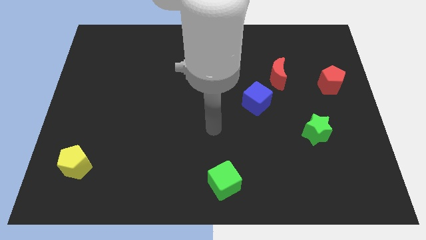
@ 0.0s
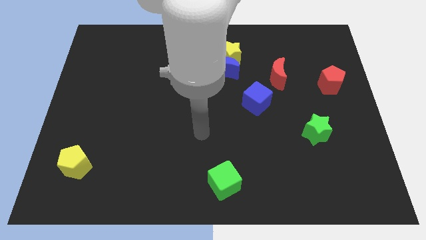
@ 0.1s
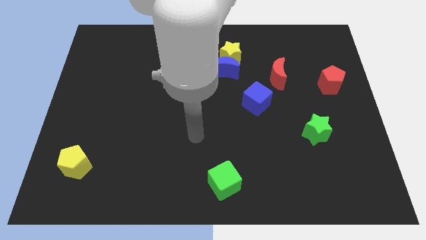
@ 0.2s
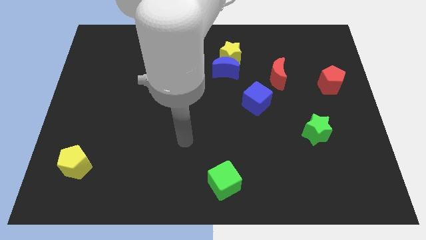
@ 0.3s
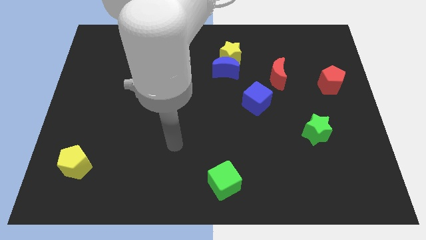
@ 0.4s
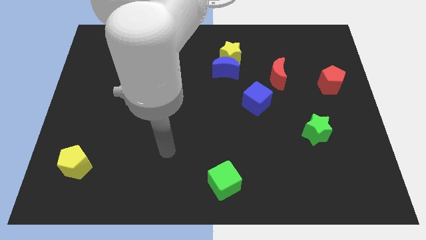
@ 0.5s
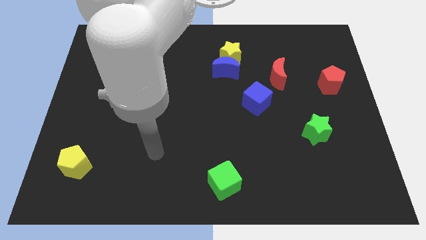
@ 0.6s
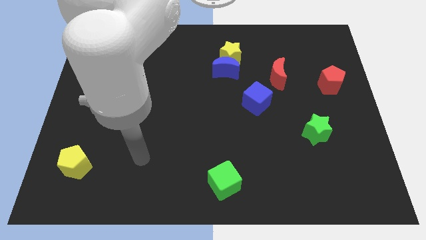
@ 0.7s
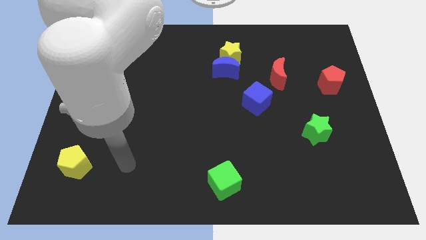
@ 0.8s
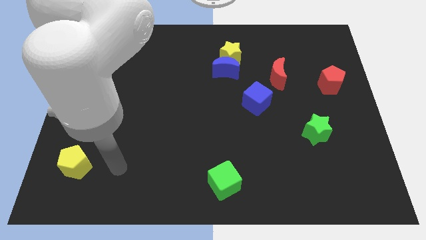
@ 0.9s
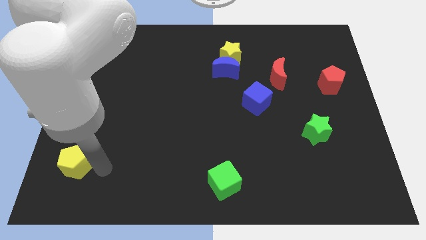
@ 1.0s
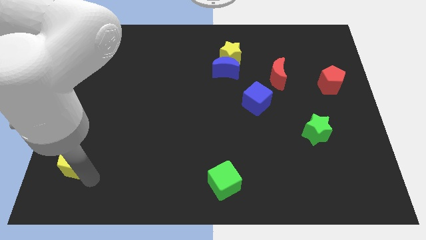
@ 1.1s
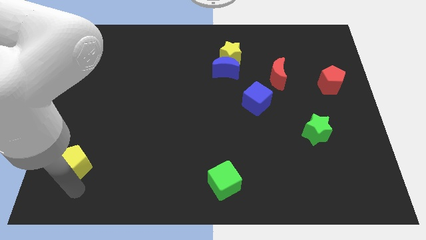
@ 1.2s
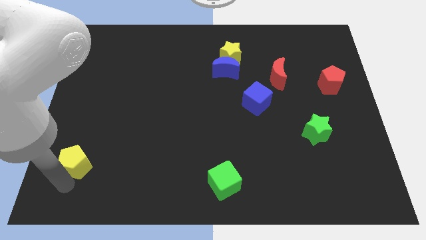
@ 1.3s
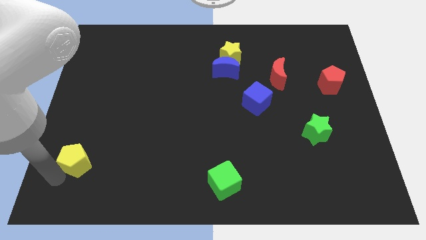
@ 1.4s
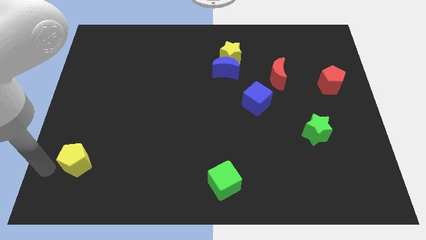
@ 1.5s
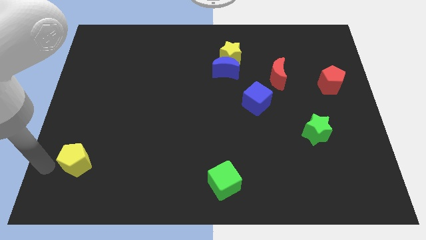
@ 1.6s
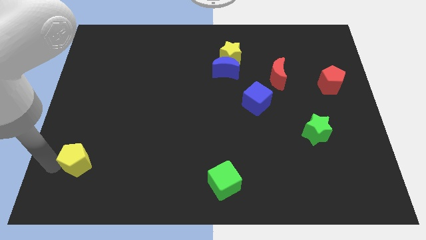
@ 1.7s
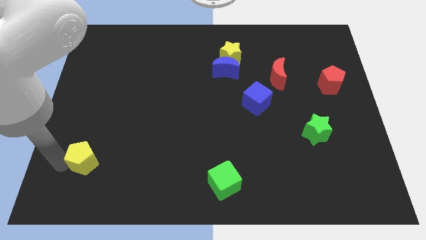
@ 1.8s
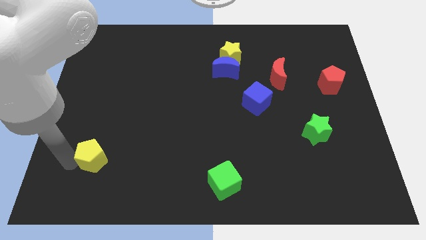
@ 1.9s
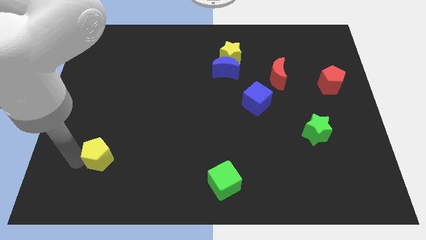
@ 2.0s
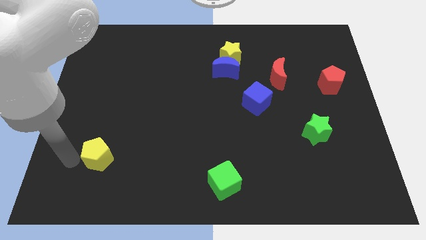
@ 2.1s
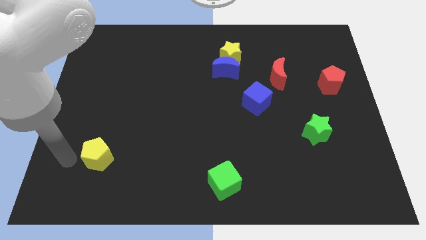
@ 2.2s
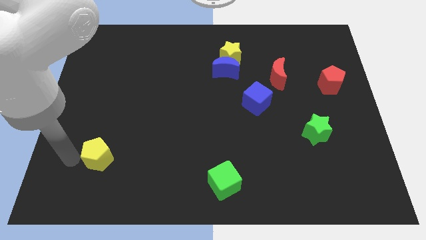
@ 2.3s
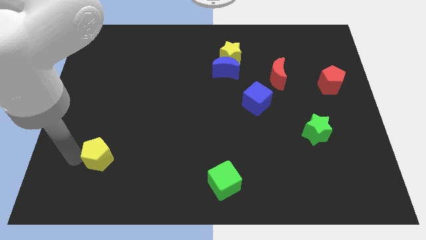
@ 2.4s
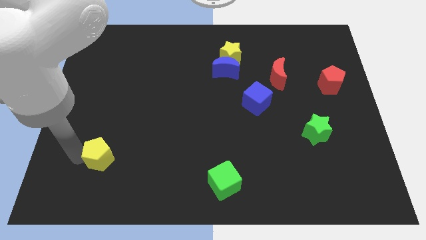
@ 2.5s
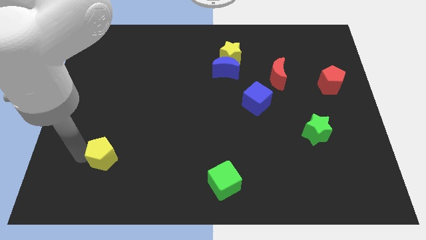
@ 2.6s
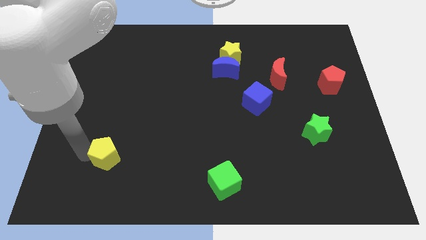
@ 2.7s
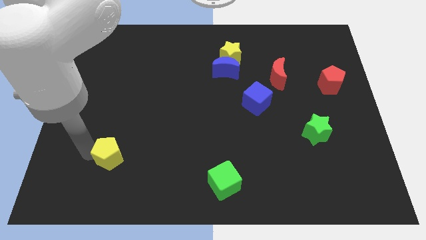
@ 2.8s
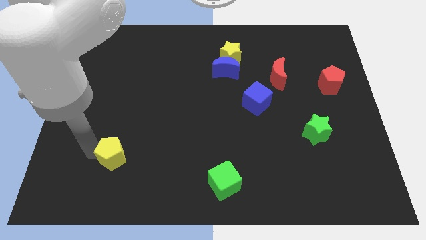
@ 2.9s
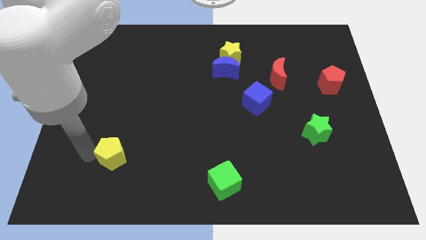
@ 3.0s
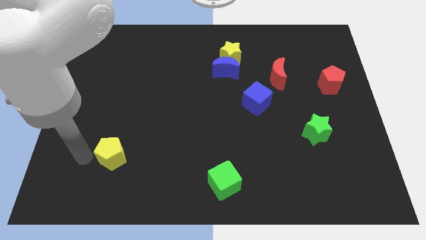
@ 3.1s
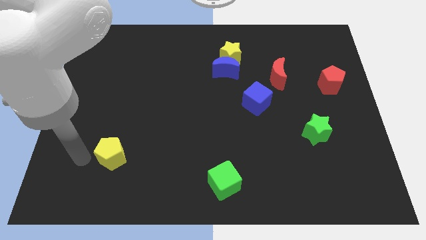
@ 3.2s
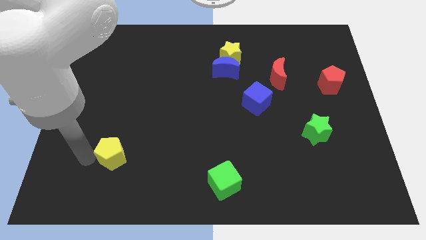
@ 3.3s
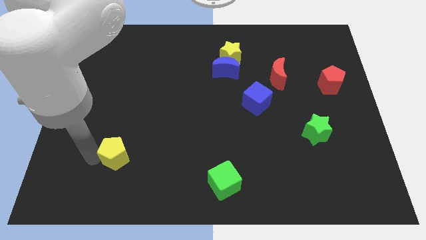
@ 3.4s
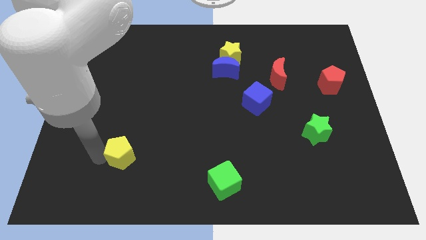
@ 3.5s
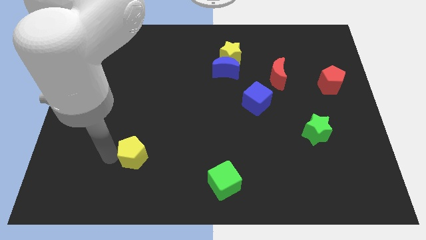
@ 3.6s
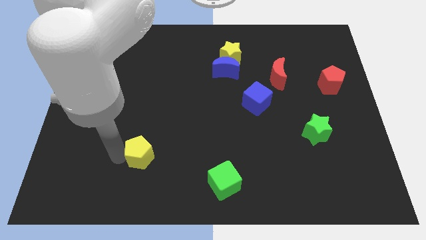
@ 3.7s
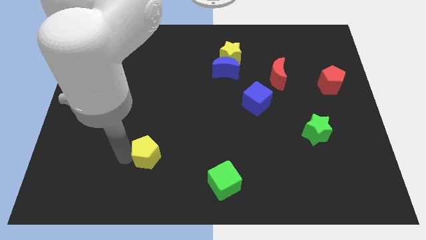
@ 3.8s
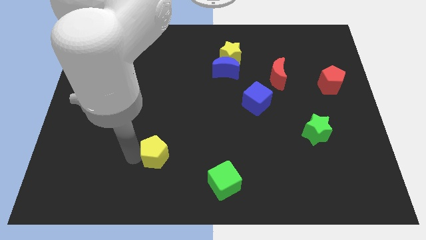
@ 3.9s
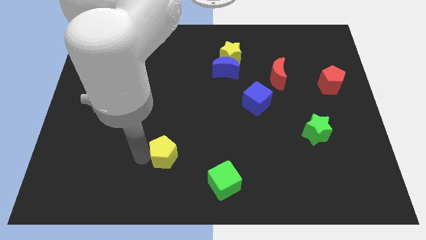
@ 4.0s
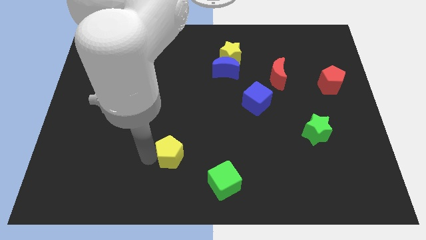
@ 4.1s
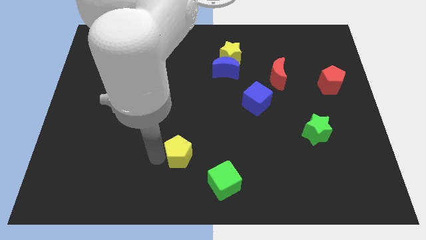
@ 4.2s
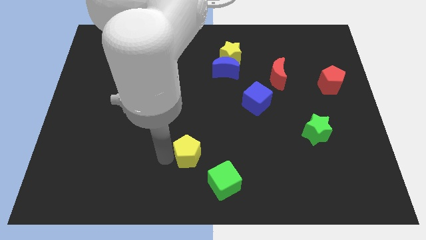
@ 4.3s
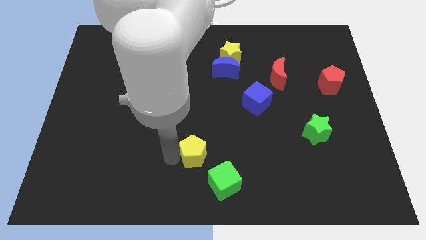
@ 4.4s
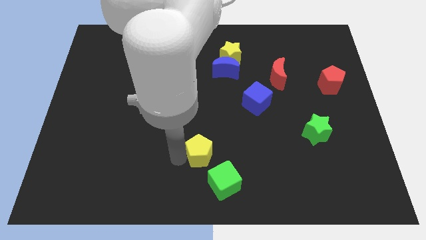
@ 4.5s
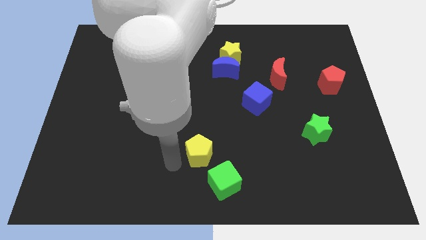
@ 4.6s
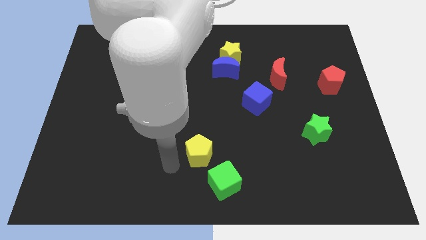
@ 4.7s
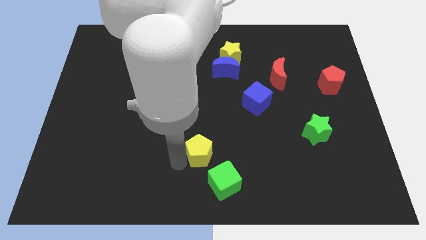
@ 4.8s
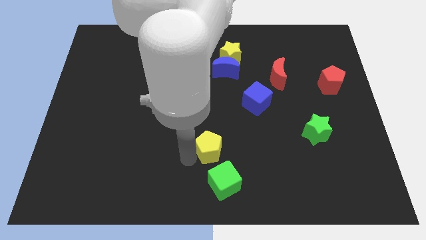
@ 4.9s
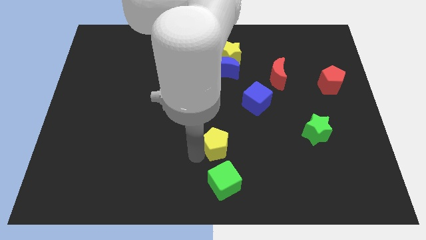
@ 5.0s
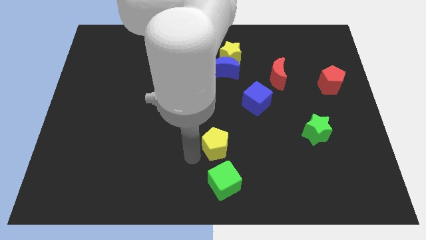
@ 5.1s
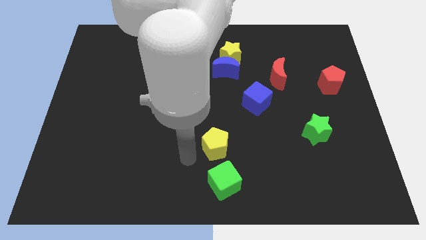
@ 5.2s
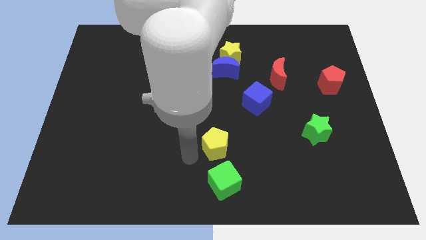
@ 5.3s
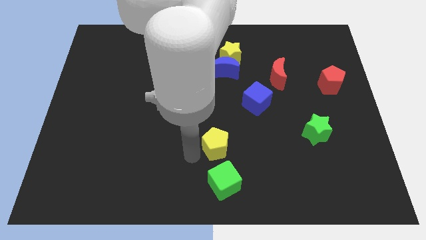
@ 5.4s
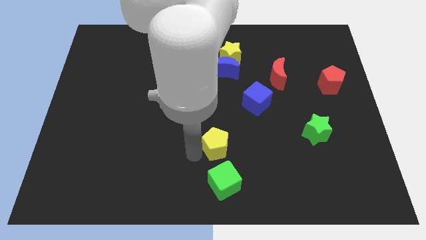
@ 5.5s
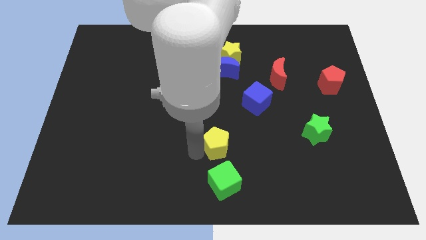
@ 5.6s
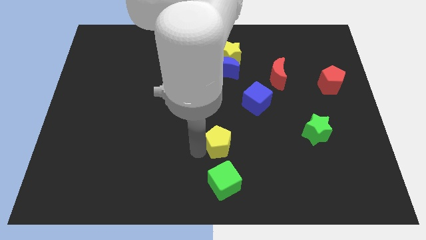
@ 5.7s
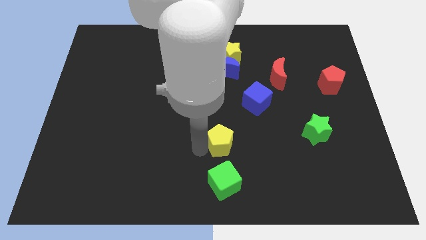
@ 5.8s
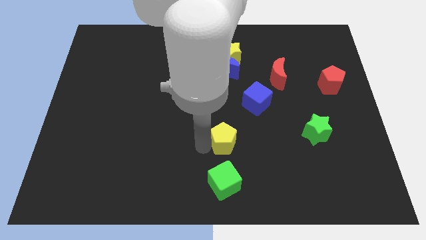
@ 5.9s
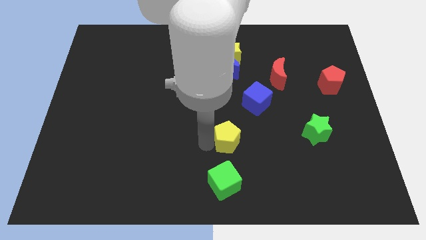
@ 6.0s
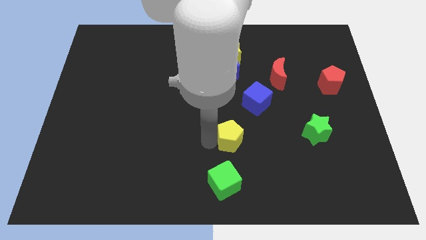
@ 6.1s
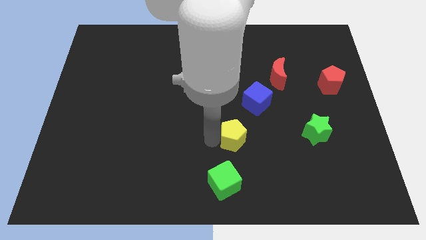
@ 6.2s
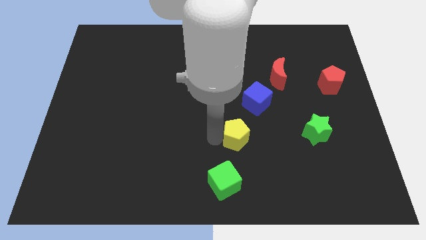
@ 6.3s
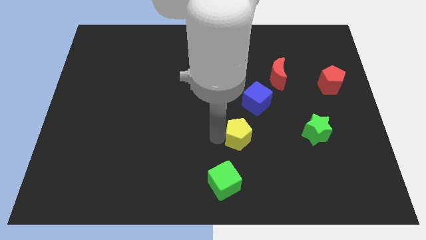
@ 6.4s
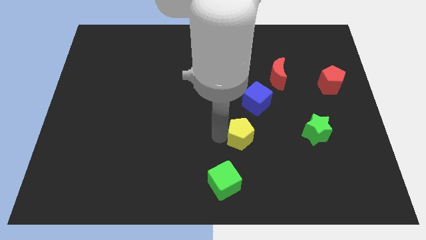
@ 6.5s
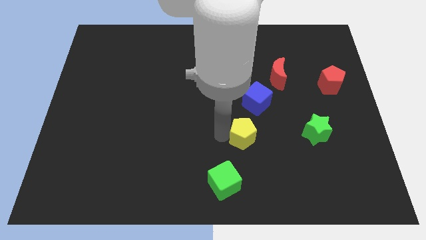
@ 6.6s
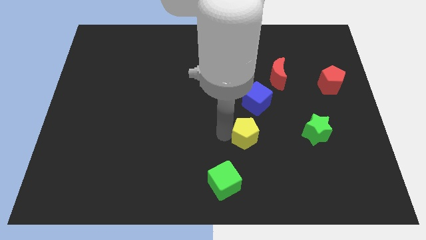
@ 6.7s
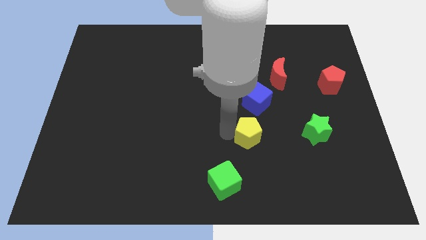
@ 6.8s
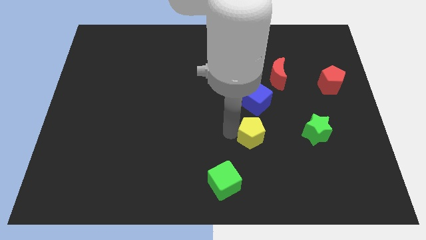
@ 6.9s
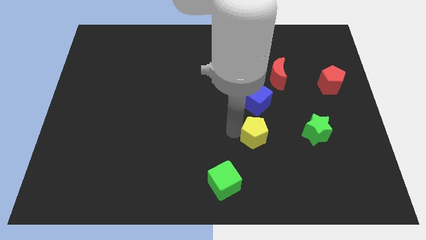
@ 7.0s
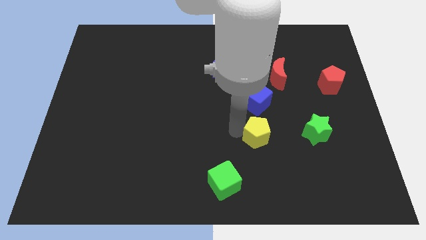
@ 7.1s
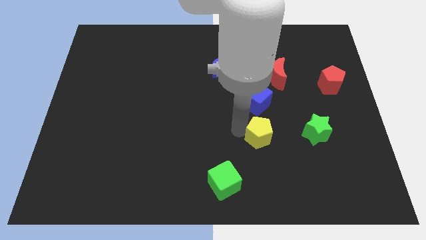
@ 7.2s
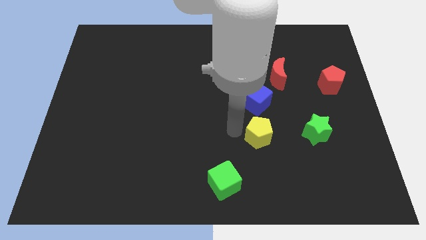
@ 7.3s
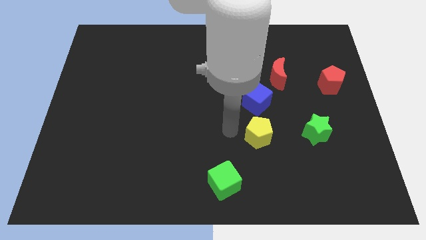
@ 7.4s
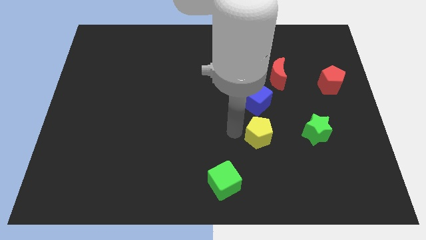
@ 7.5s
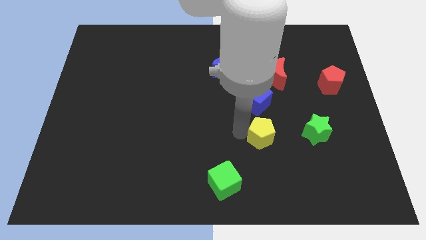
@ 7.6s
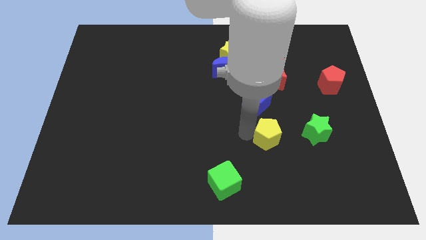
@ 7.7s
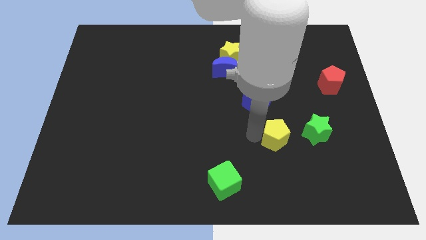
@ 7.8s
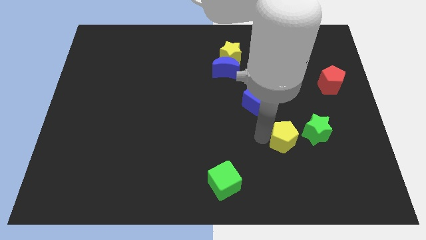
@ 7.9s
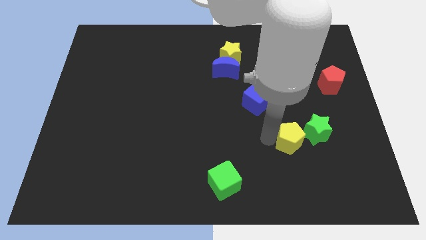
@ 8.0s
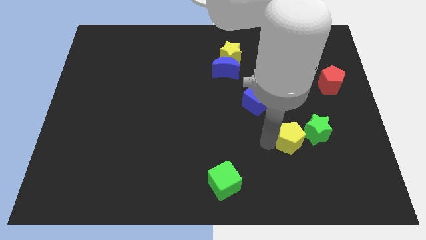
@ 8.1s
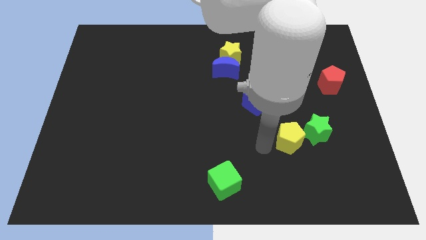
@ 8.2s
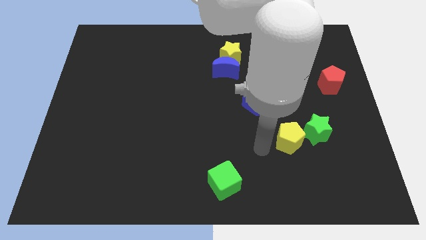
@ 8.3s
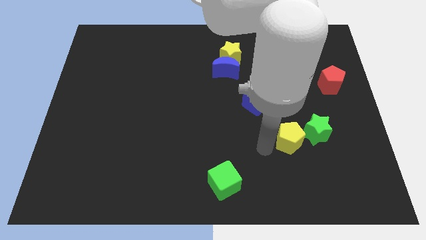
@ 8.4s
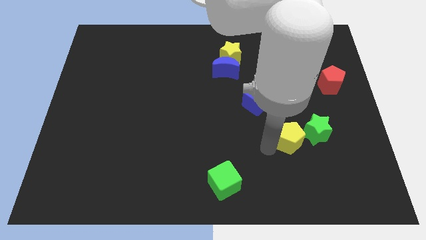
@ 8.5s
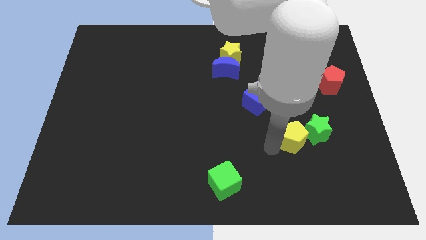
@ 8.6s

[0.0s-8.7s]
push the yellow pentagon towards the green star
